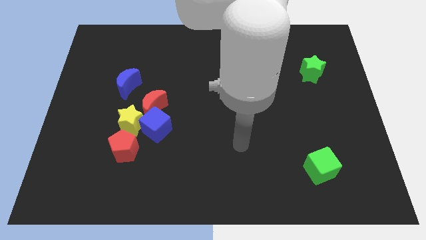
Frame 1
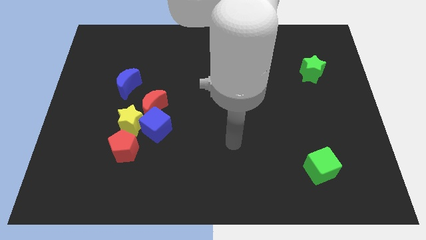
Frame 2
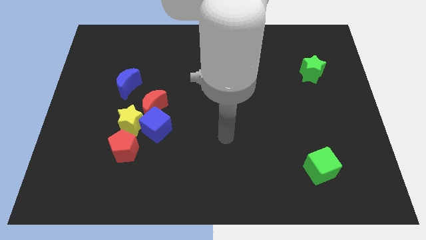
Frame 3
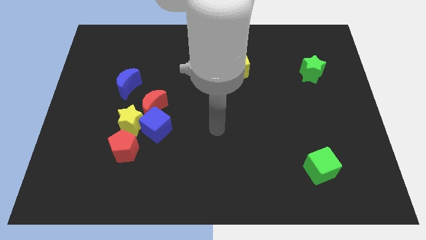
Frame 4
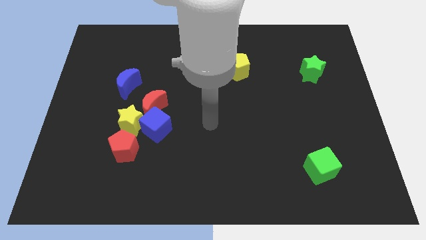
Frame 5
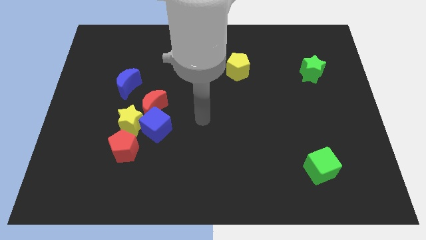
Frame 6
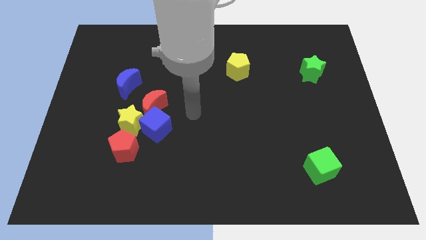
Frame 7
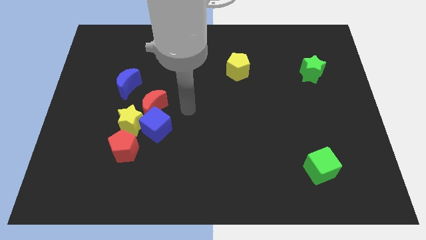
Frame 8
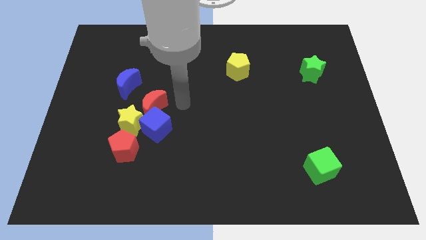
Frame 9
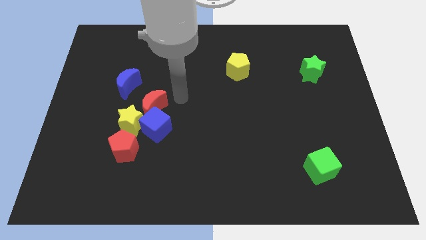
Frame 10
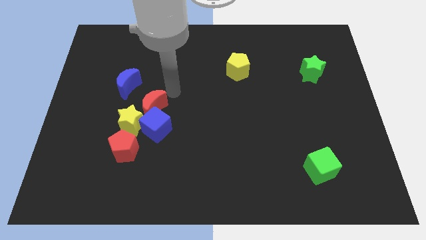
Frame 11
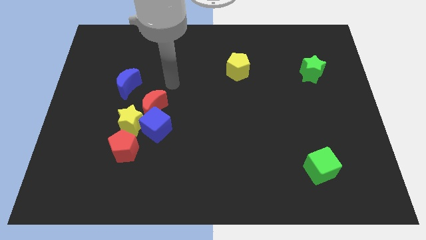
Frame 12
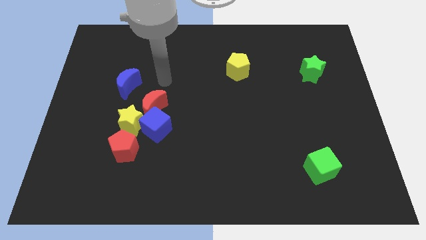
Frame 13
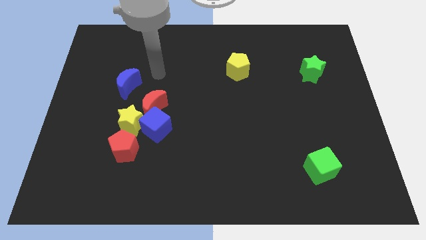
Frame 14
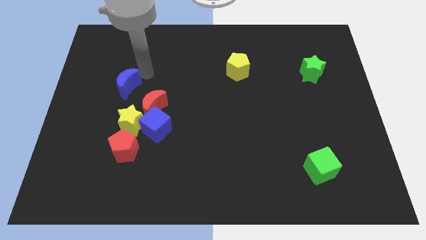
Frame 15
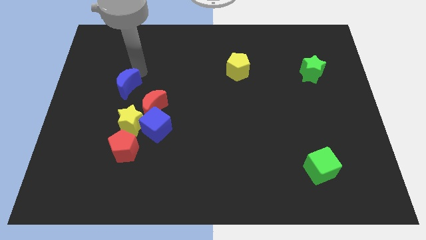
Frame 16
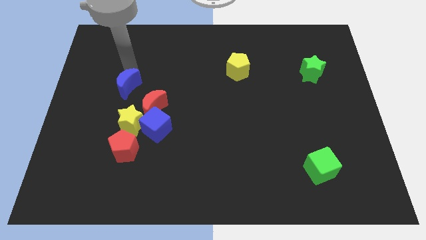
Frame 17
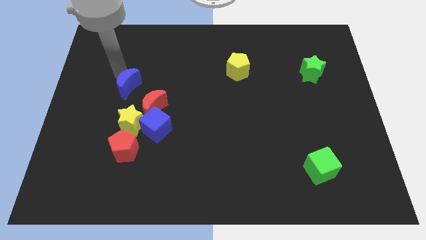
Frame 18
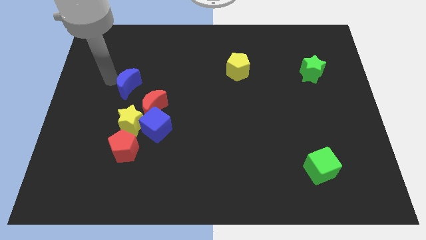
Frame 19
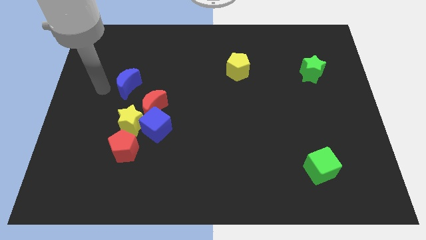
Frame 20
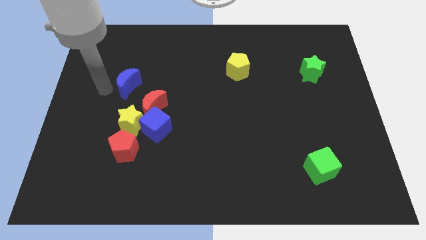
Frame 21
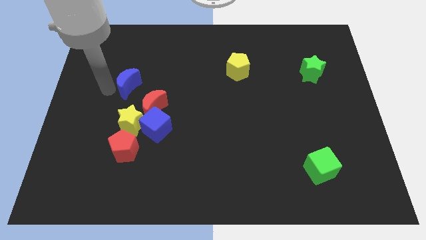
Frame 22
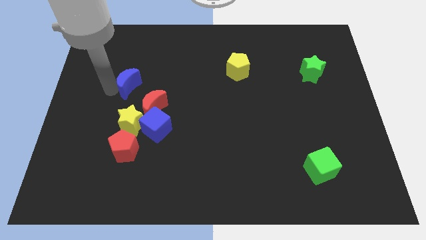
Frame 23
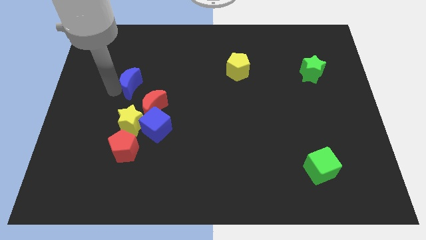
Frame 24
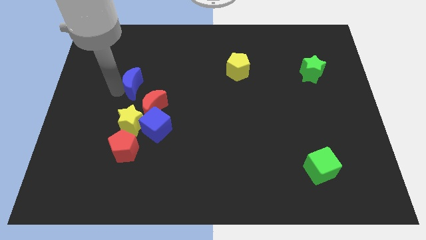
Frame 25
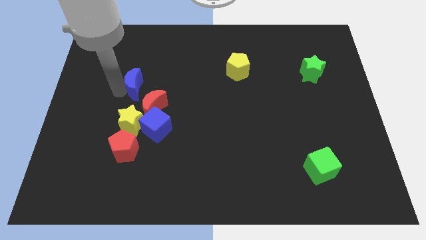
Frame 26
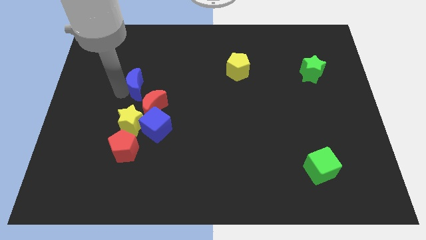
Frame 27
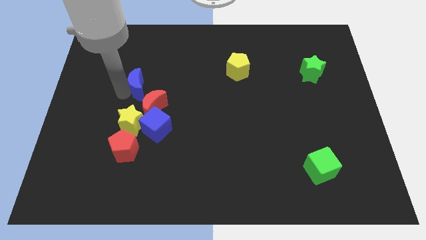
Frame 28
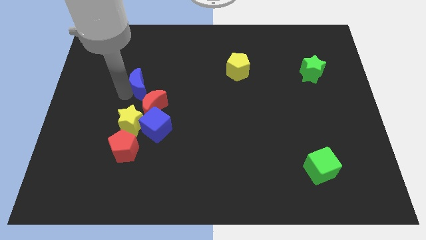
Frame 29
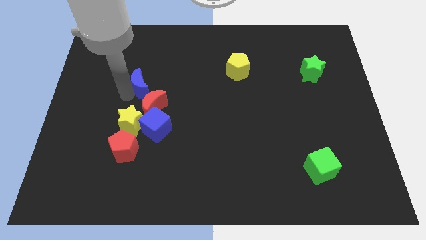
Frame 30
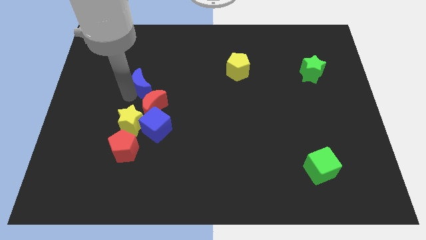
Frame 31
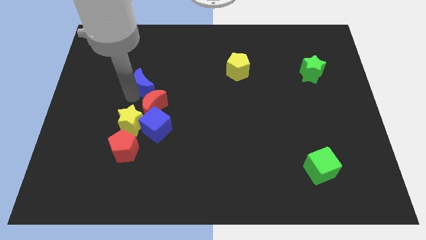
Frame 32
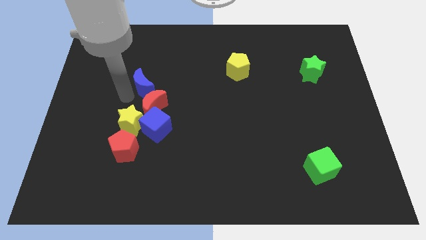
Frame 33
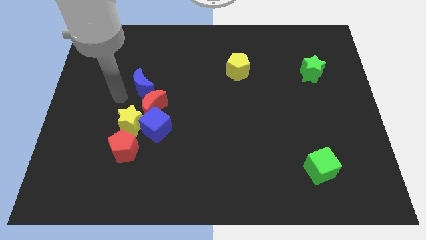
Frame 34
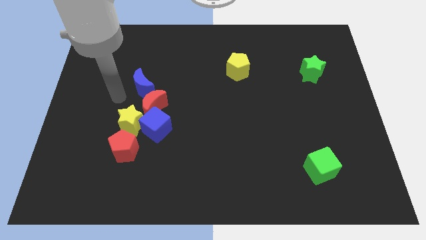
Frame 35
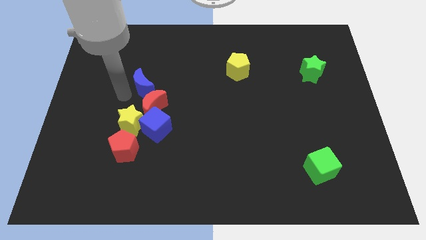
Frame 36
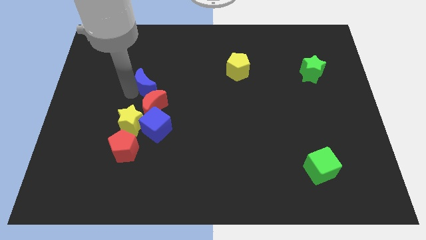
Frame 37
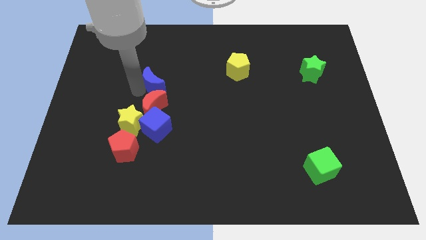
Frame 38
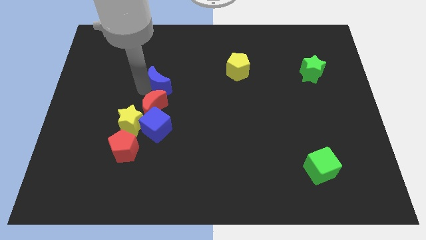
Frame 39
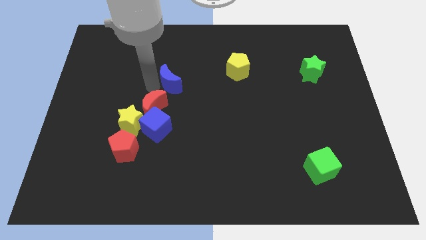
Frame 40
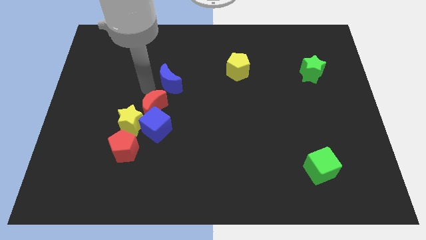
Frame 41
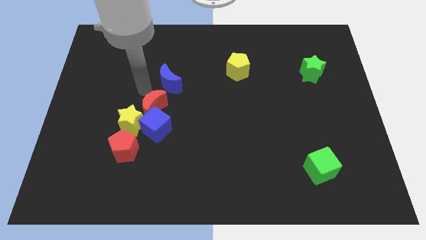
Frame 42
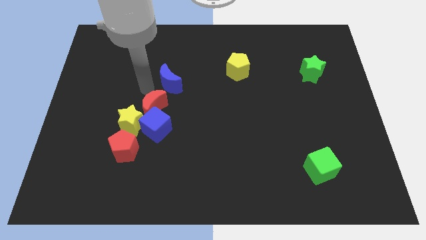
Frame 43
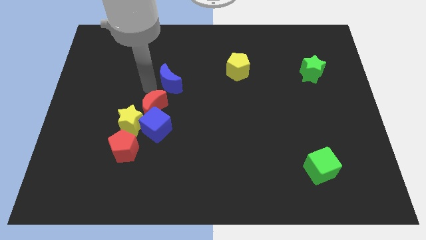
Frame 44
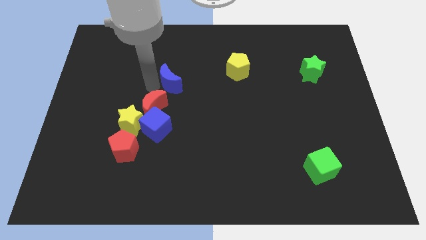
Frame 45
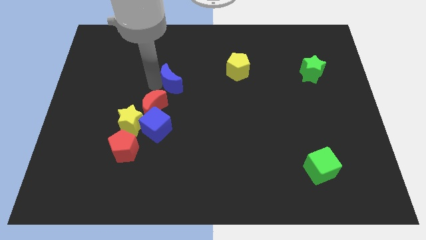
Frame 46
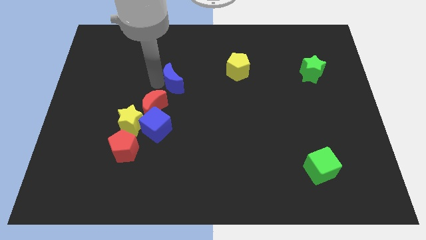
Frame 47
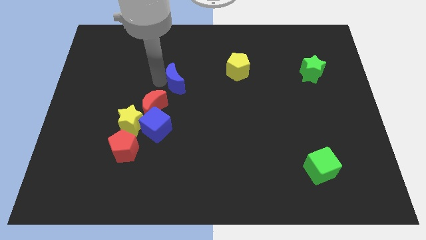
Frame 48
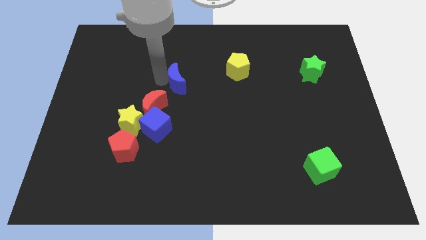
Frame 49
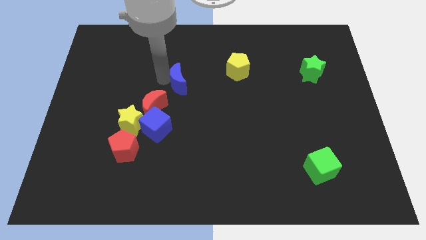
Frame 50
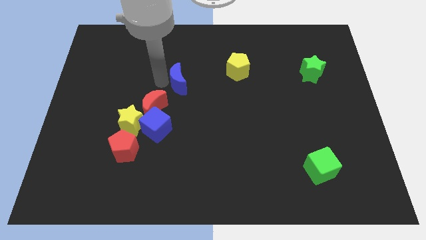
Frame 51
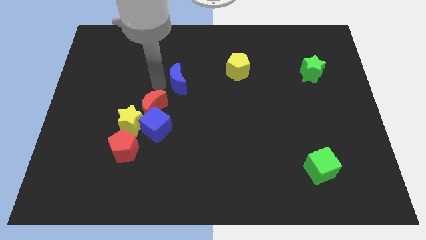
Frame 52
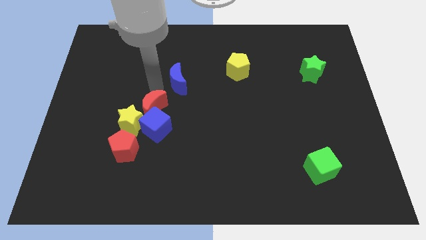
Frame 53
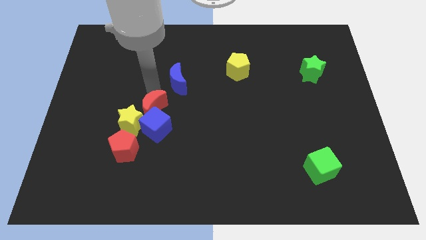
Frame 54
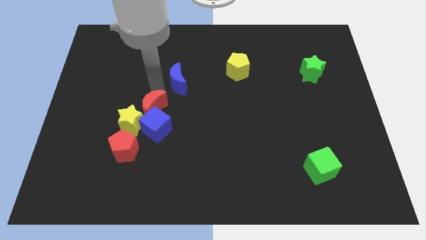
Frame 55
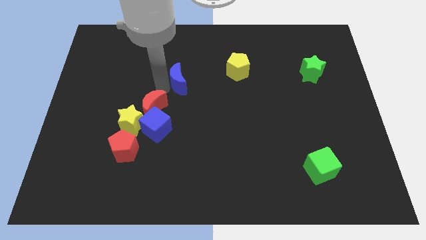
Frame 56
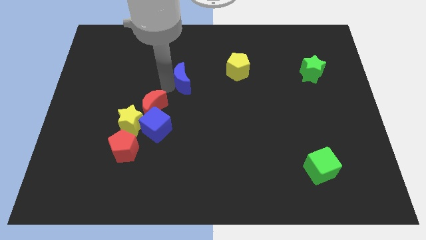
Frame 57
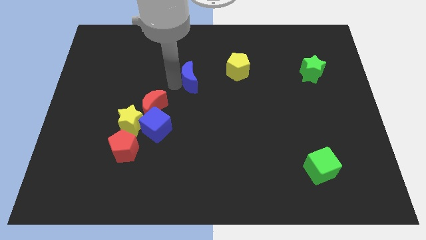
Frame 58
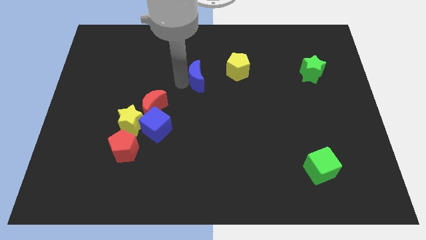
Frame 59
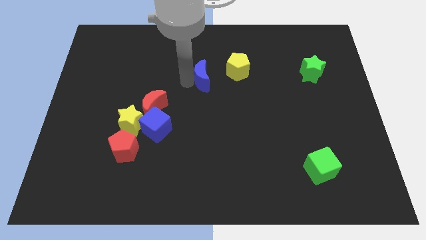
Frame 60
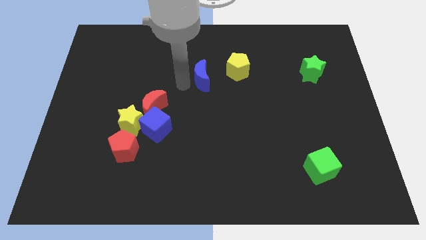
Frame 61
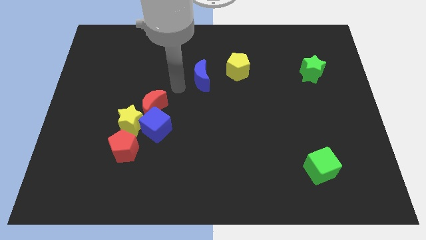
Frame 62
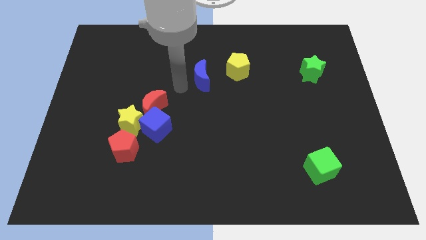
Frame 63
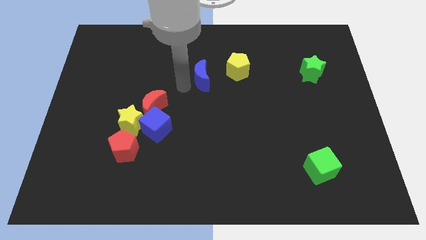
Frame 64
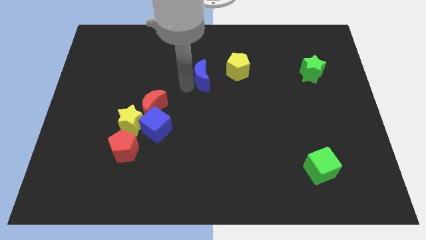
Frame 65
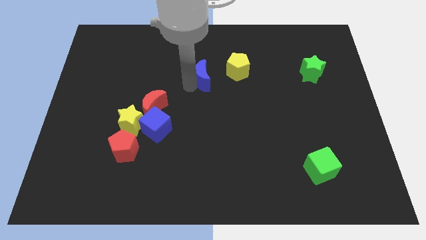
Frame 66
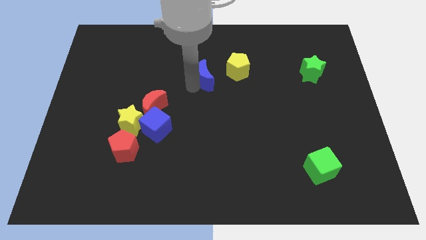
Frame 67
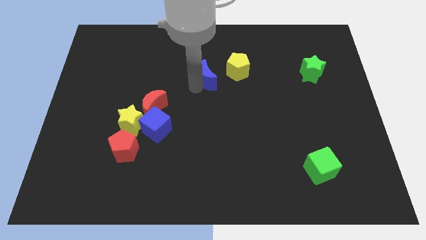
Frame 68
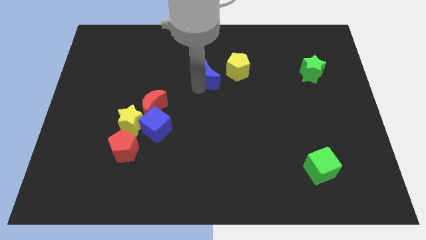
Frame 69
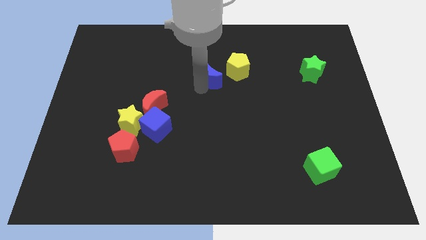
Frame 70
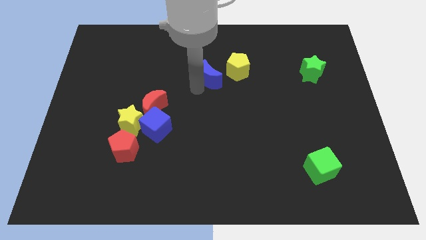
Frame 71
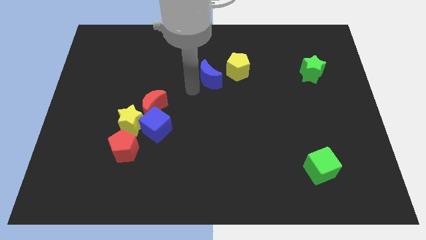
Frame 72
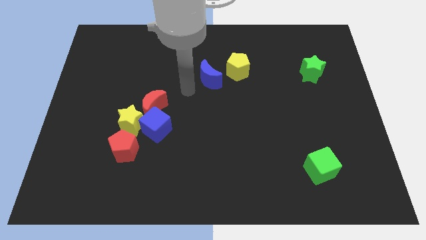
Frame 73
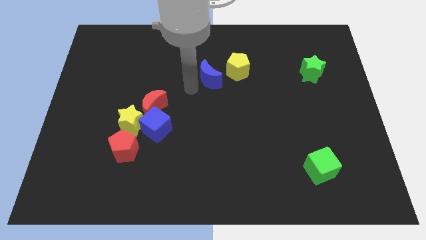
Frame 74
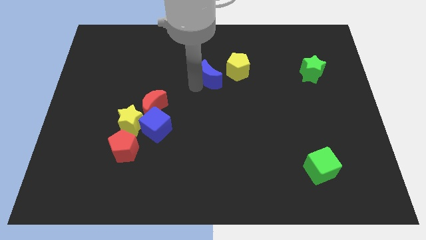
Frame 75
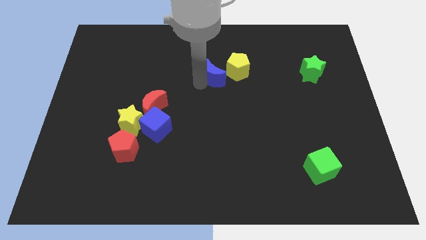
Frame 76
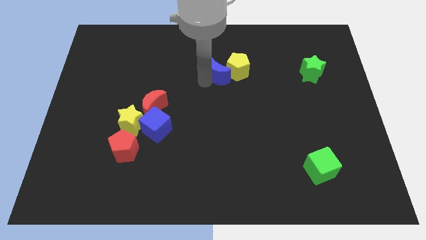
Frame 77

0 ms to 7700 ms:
put the blue moon close to the yellow pentagon
